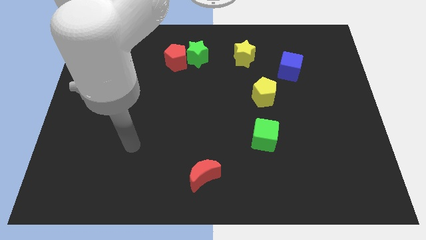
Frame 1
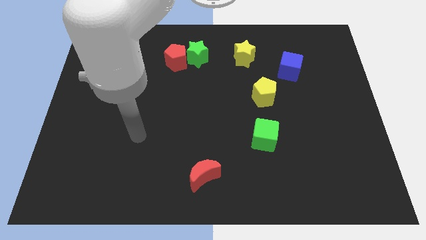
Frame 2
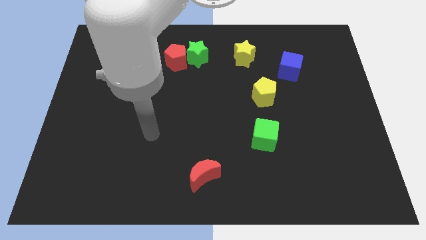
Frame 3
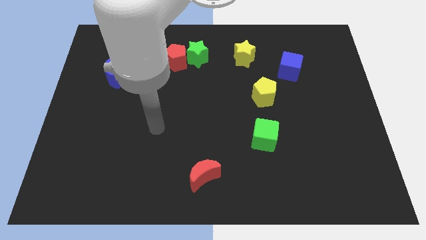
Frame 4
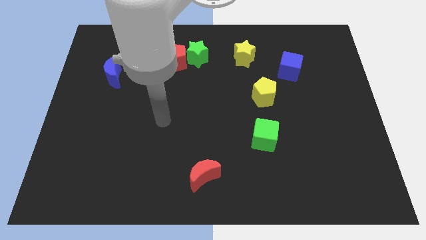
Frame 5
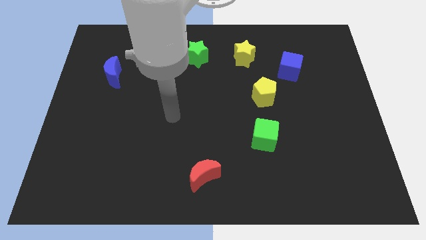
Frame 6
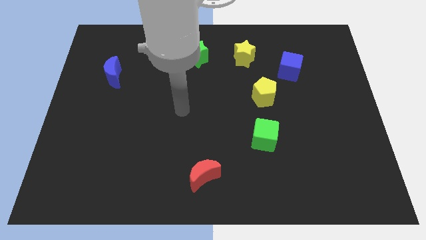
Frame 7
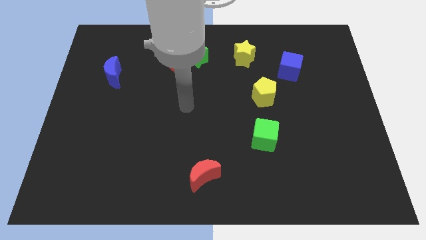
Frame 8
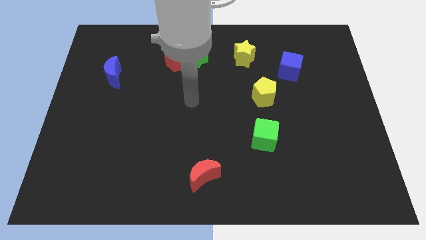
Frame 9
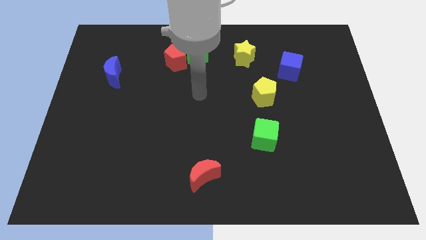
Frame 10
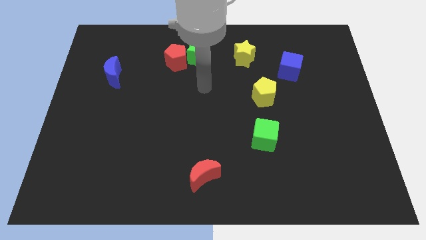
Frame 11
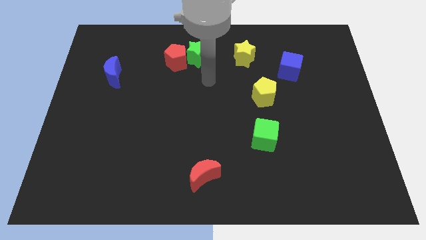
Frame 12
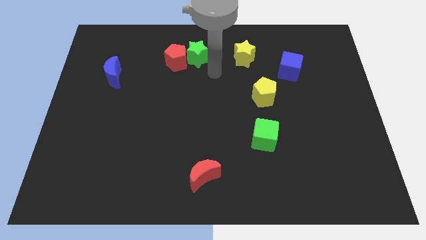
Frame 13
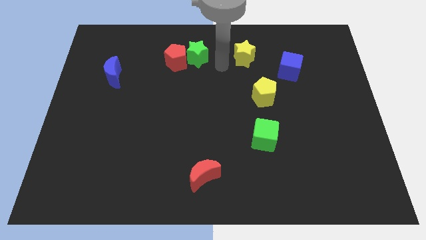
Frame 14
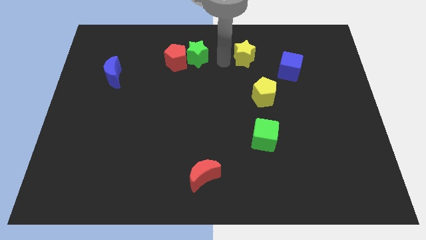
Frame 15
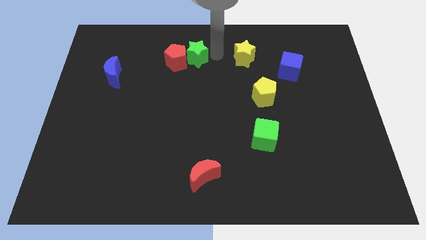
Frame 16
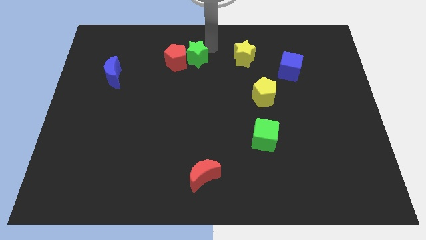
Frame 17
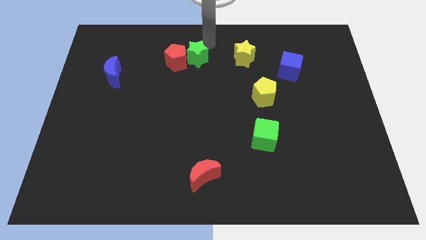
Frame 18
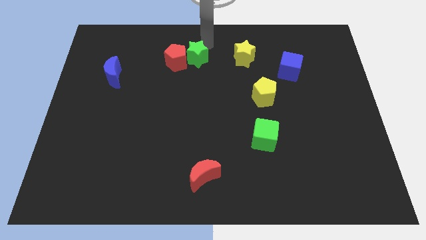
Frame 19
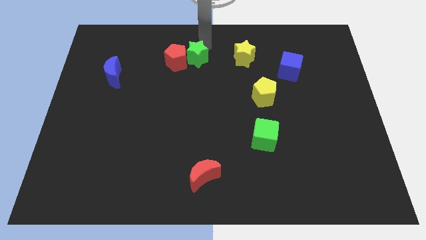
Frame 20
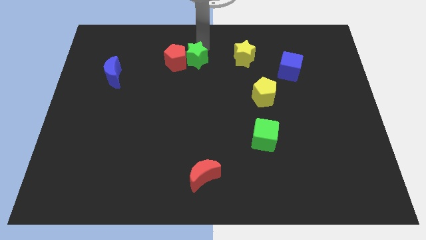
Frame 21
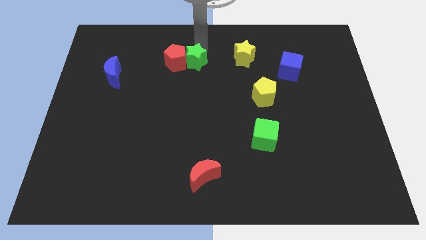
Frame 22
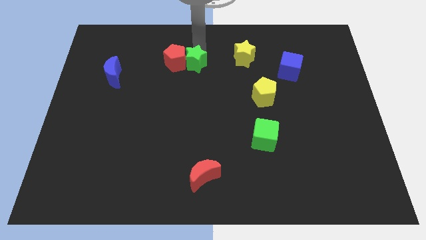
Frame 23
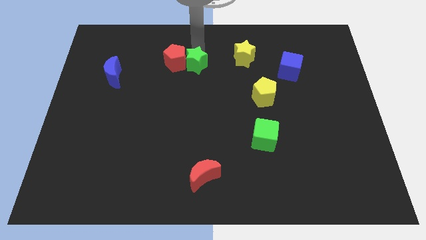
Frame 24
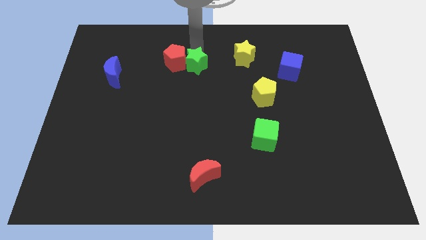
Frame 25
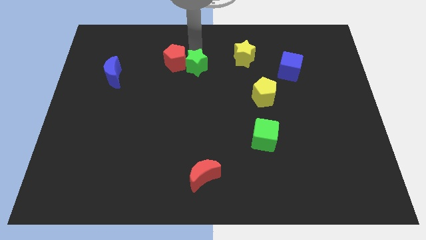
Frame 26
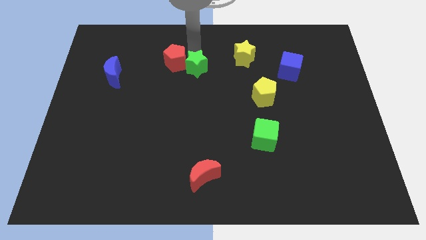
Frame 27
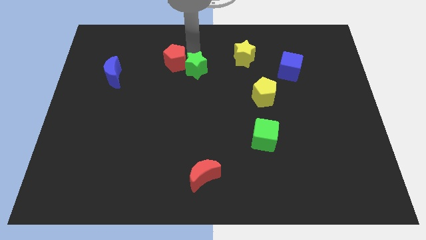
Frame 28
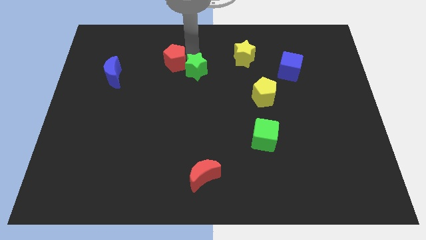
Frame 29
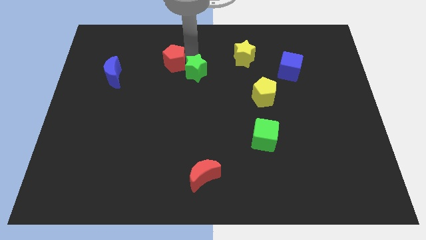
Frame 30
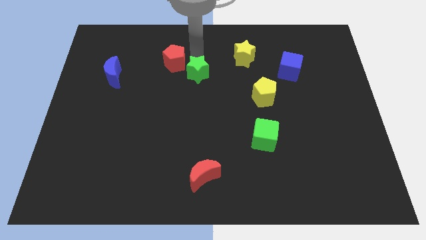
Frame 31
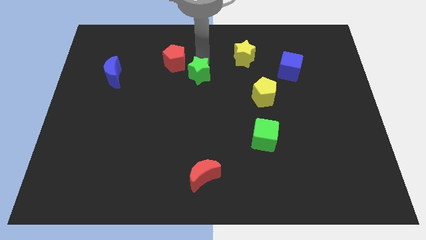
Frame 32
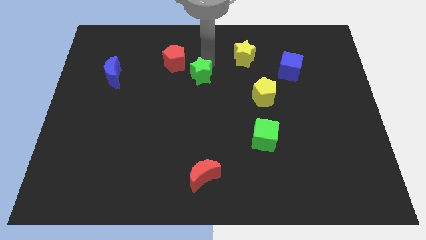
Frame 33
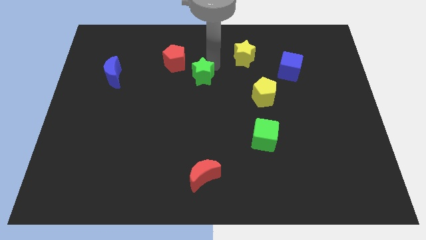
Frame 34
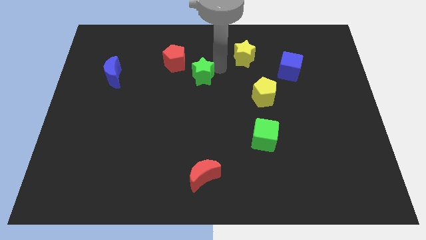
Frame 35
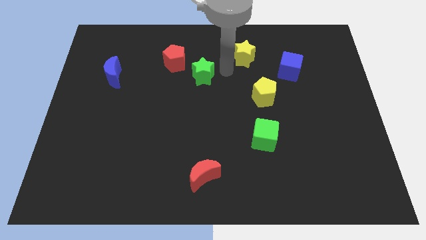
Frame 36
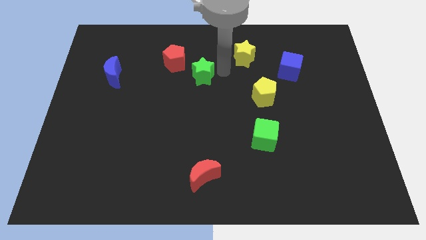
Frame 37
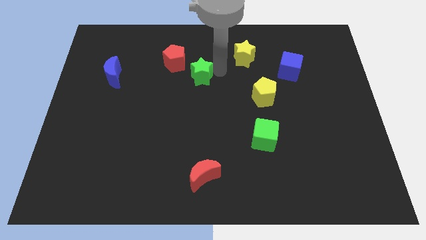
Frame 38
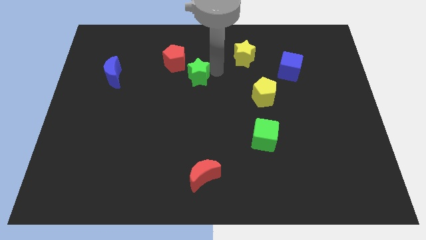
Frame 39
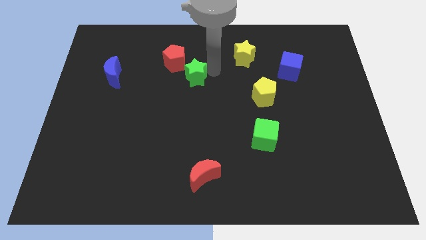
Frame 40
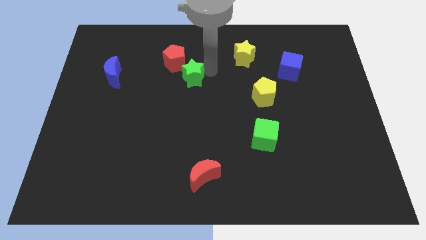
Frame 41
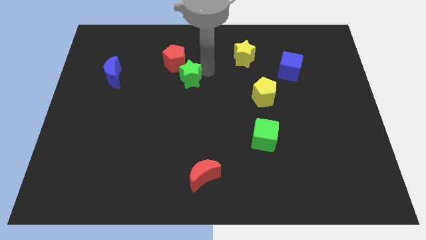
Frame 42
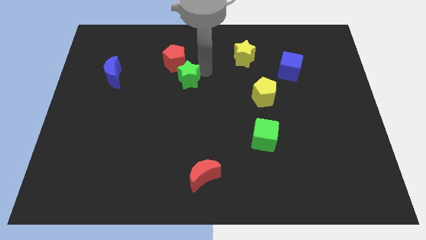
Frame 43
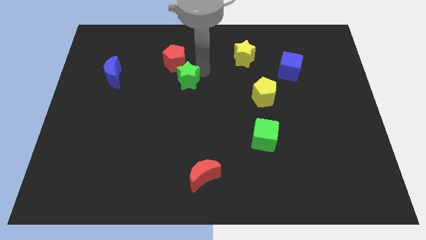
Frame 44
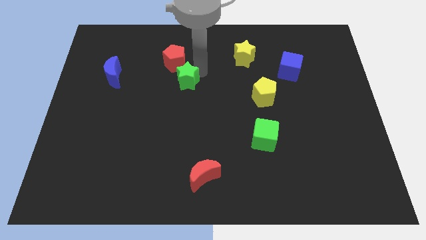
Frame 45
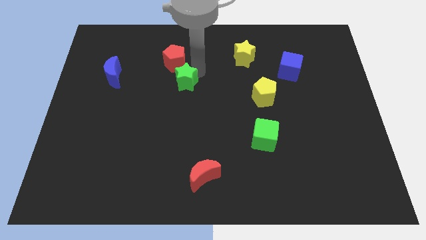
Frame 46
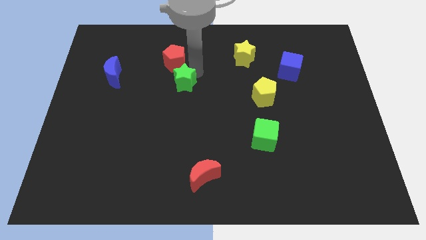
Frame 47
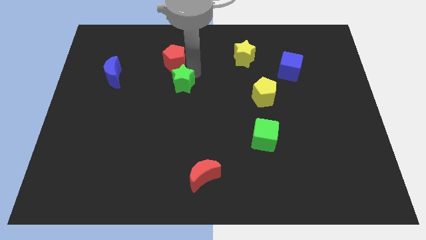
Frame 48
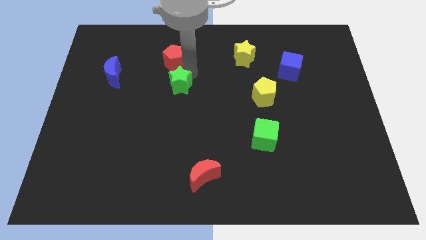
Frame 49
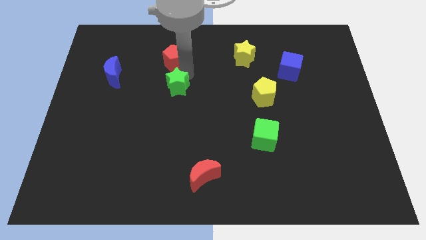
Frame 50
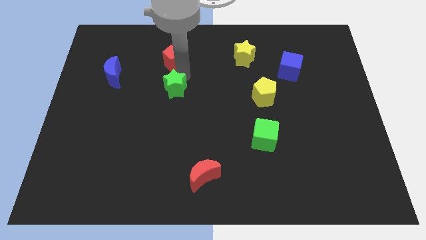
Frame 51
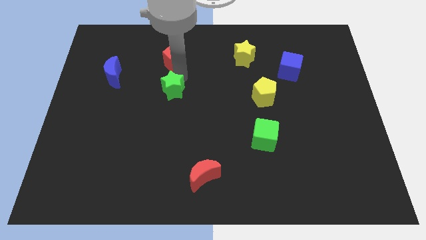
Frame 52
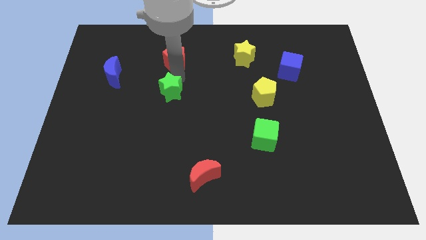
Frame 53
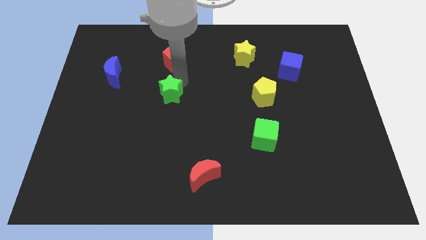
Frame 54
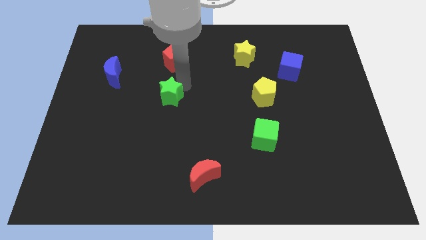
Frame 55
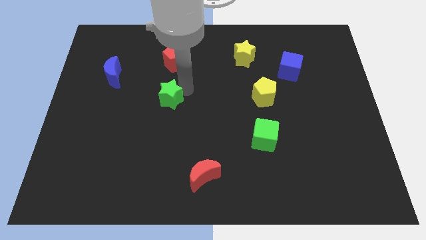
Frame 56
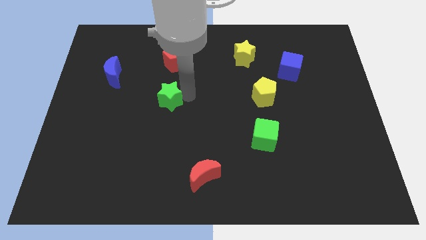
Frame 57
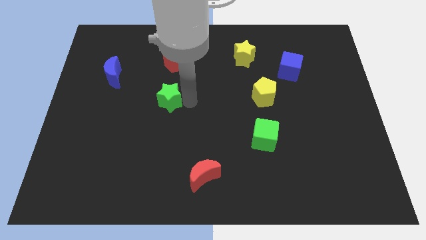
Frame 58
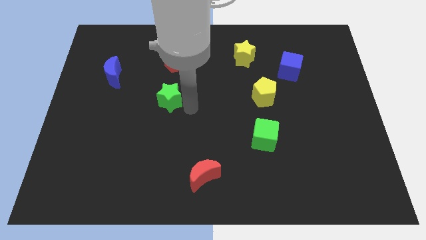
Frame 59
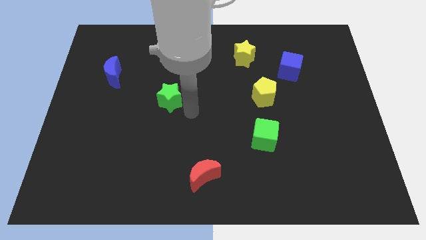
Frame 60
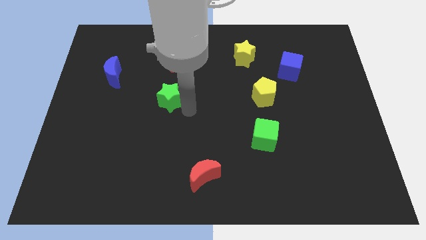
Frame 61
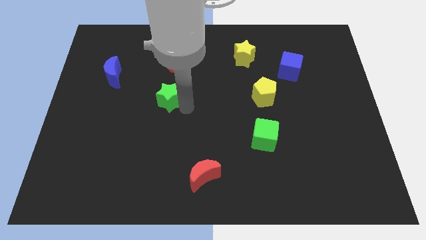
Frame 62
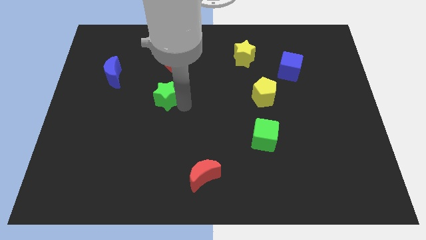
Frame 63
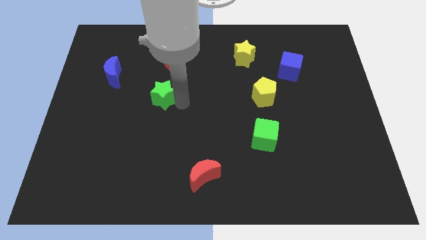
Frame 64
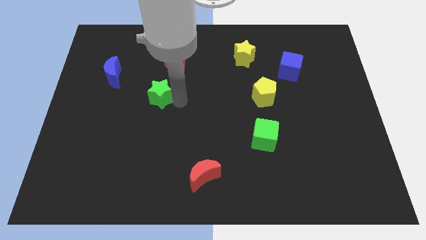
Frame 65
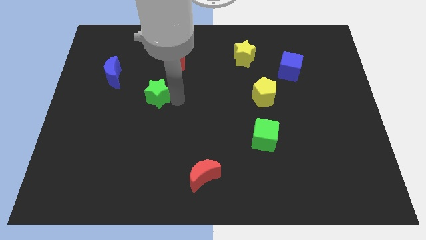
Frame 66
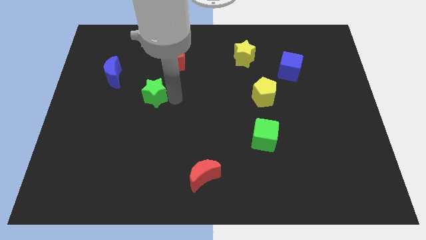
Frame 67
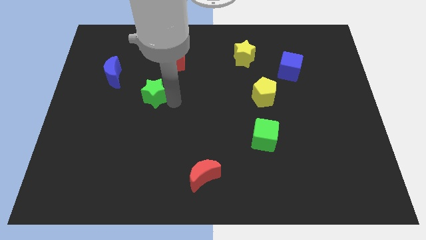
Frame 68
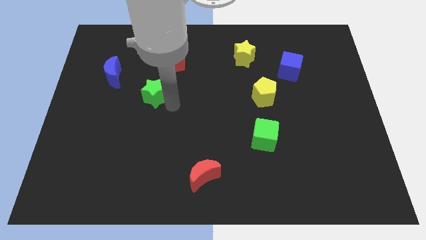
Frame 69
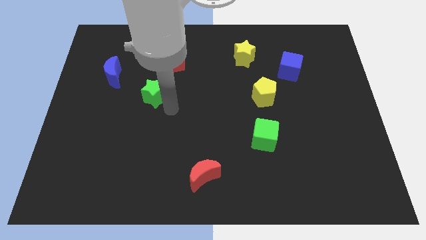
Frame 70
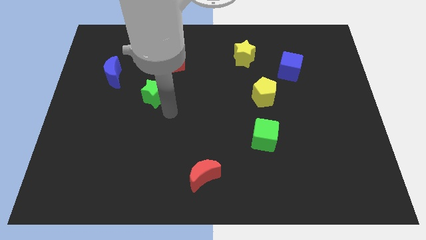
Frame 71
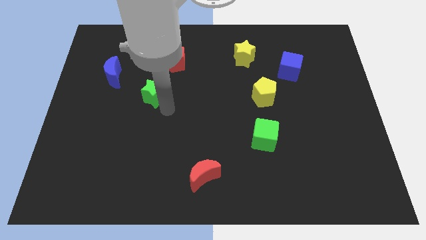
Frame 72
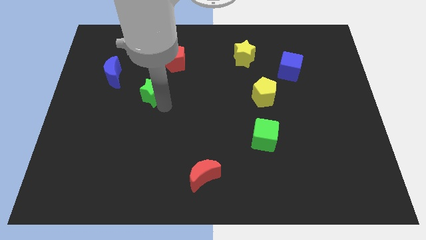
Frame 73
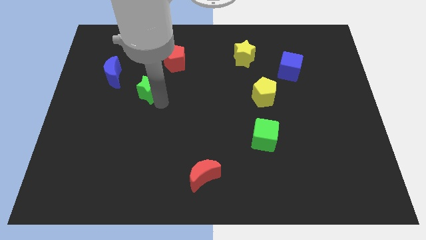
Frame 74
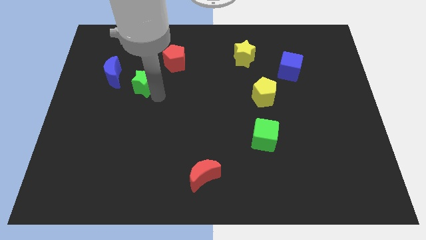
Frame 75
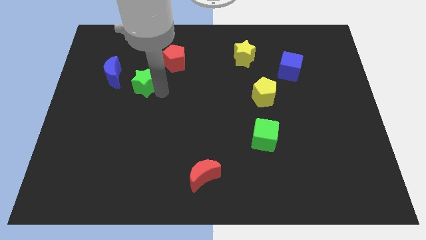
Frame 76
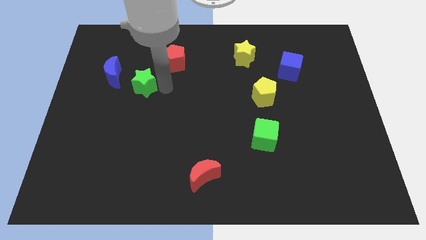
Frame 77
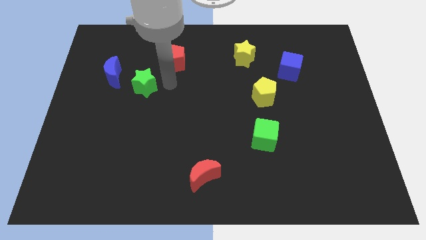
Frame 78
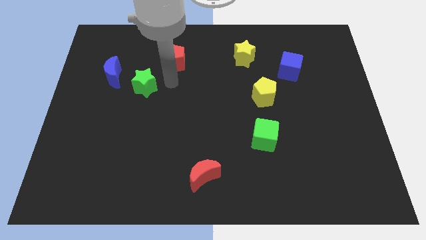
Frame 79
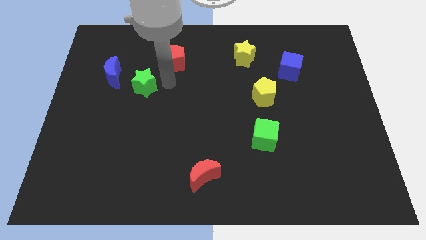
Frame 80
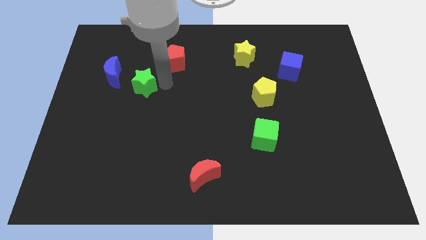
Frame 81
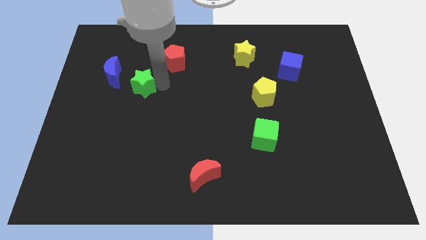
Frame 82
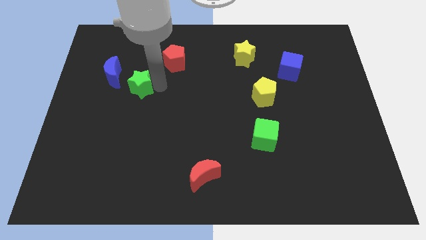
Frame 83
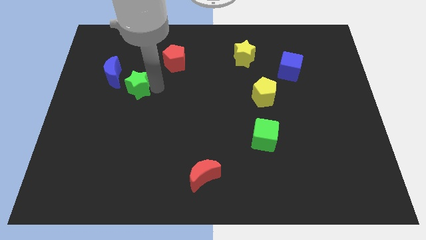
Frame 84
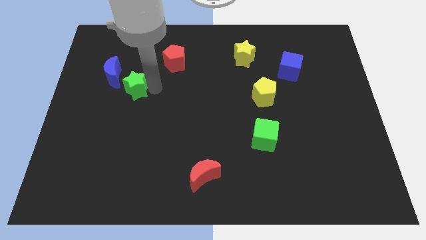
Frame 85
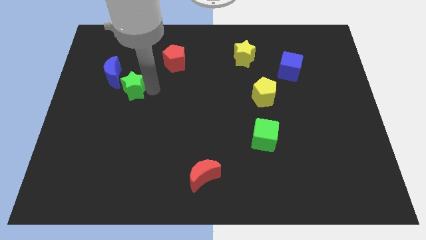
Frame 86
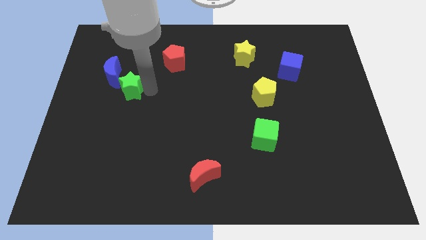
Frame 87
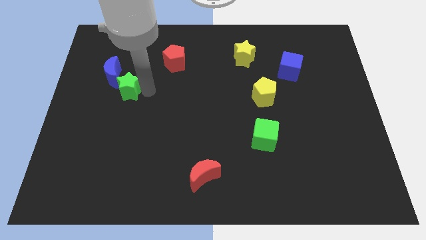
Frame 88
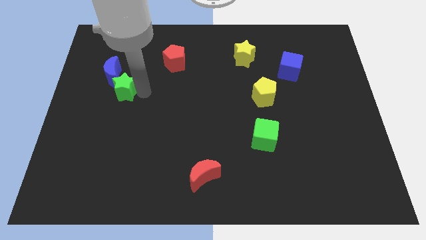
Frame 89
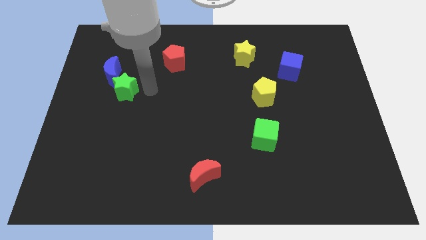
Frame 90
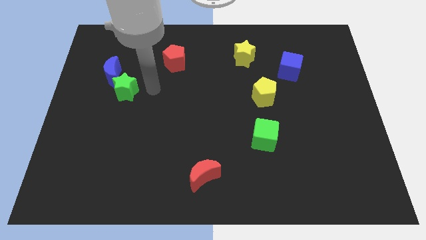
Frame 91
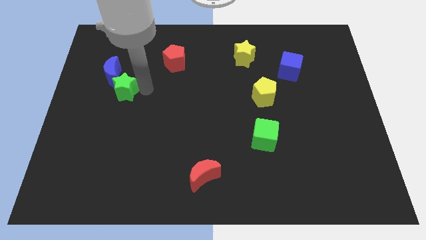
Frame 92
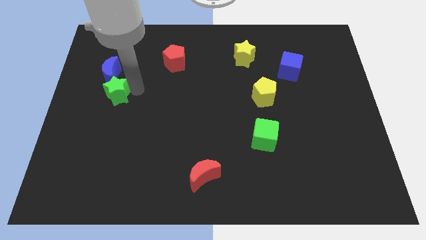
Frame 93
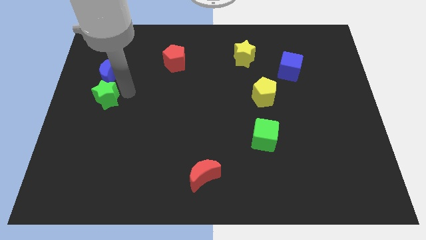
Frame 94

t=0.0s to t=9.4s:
put the green star to the left side
